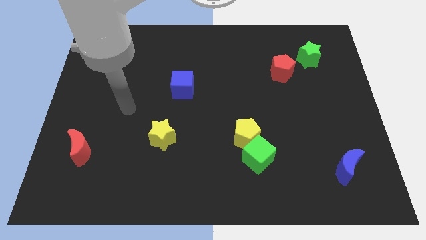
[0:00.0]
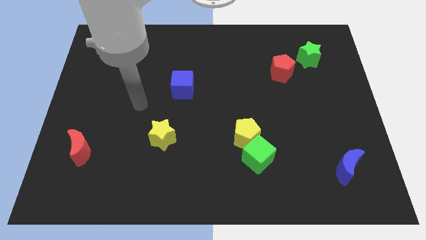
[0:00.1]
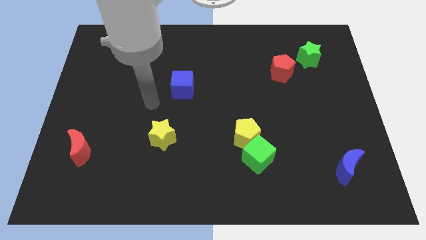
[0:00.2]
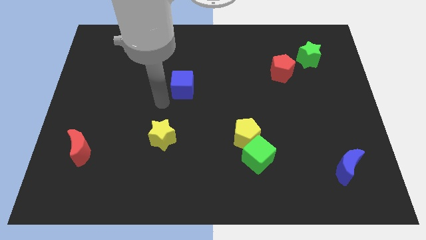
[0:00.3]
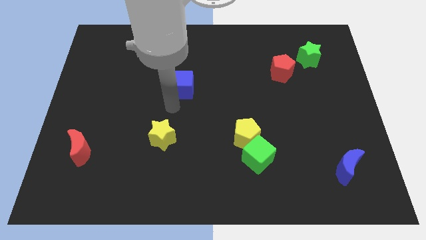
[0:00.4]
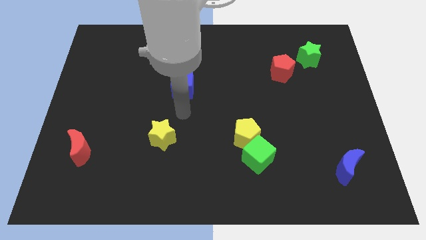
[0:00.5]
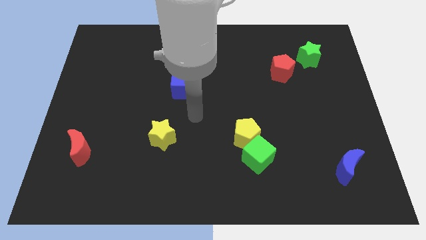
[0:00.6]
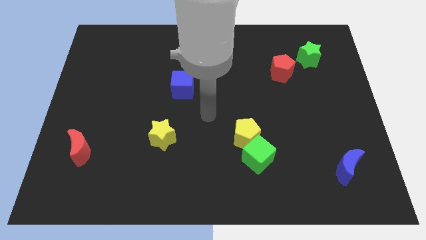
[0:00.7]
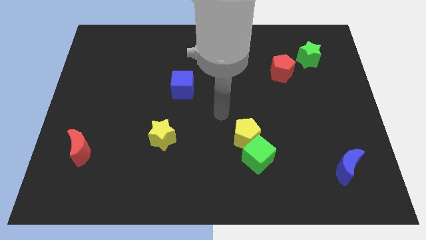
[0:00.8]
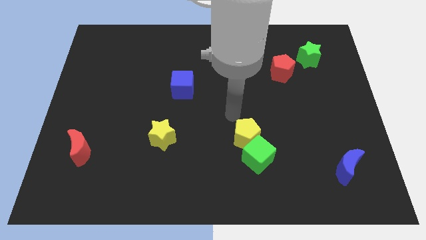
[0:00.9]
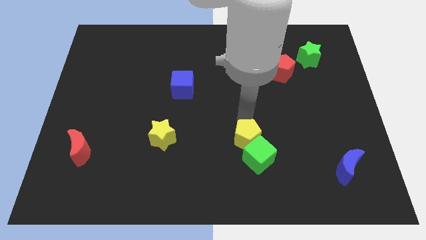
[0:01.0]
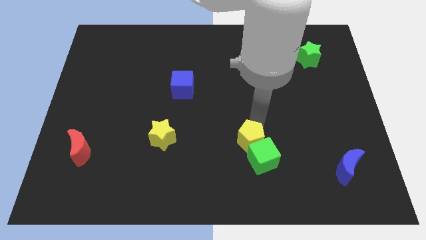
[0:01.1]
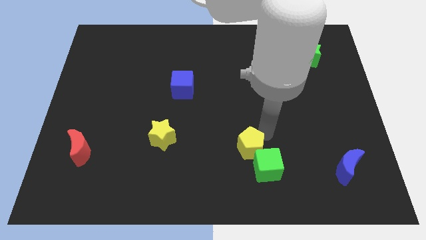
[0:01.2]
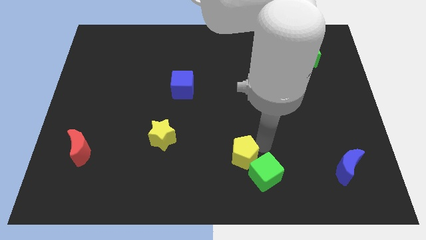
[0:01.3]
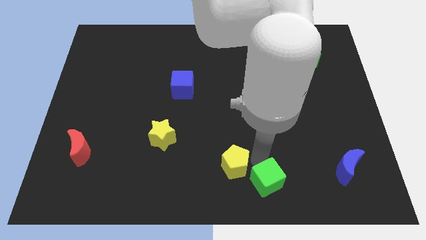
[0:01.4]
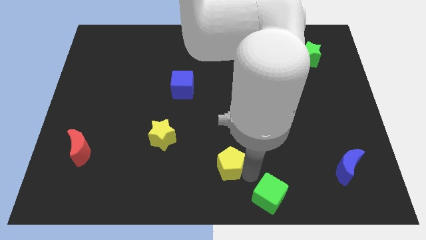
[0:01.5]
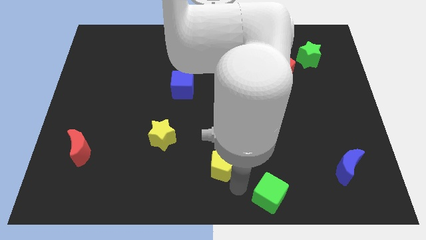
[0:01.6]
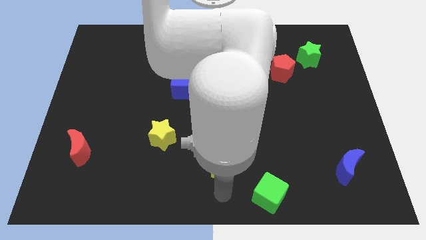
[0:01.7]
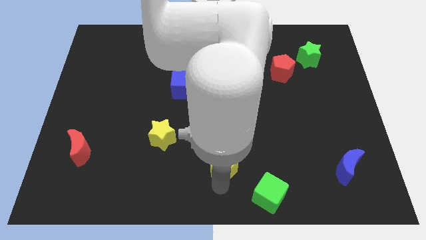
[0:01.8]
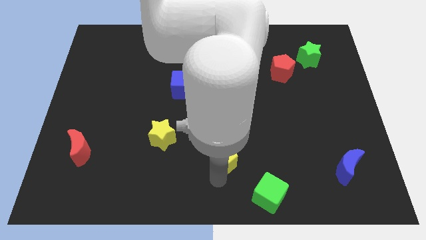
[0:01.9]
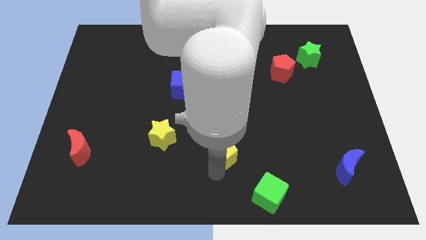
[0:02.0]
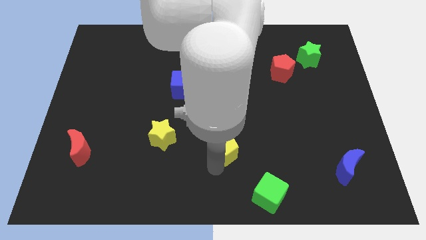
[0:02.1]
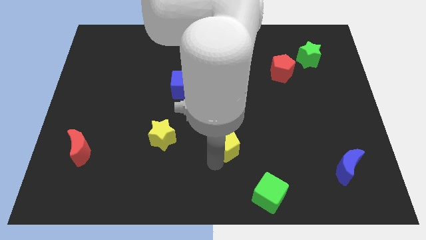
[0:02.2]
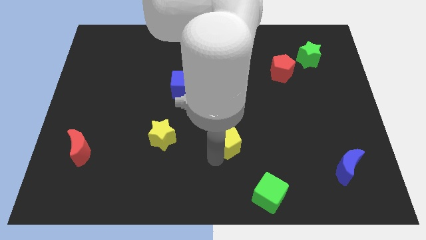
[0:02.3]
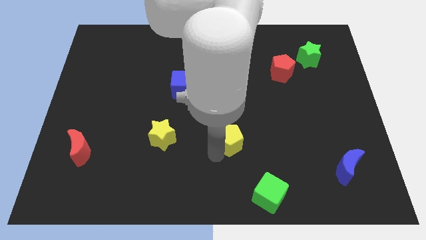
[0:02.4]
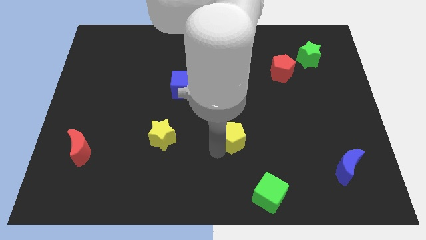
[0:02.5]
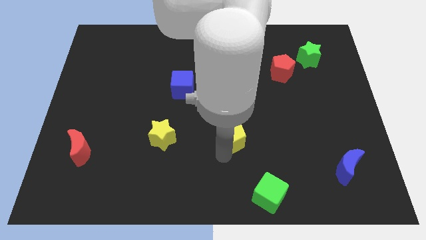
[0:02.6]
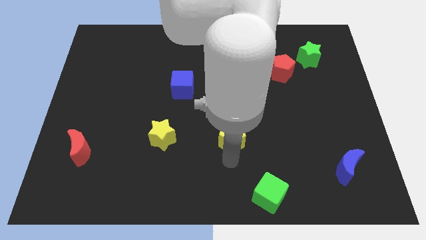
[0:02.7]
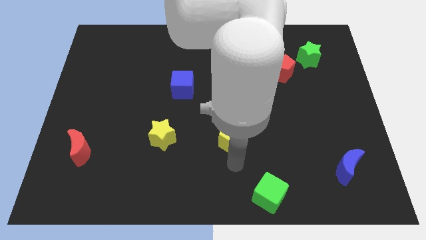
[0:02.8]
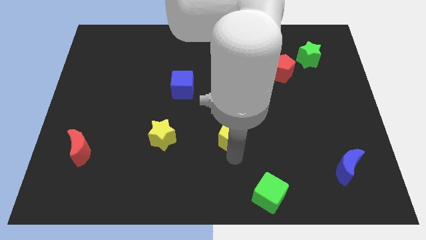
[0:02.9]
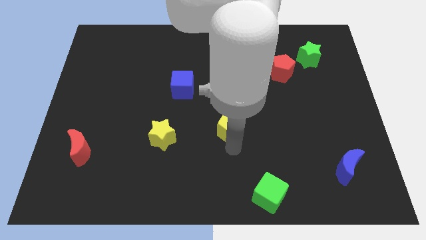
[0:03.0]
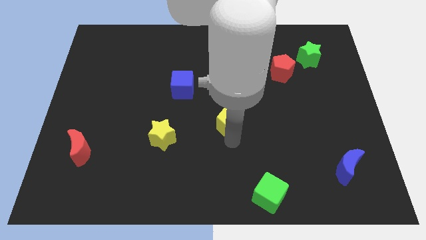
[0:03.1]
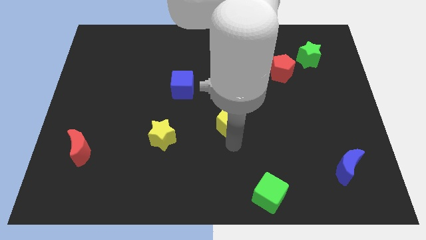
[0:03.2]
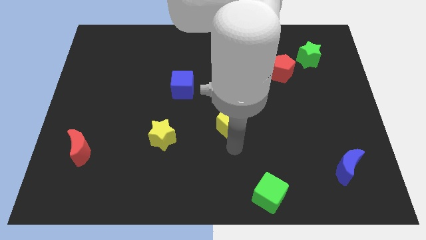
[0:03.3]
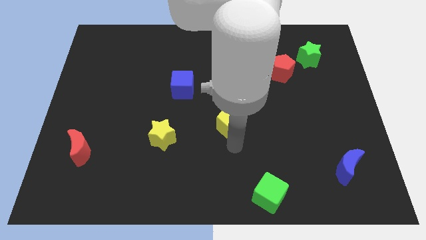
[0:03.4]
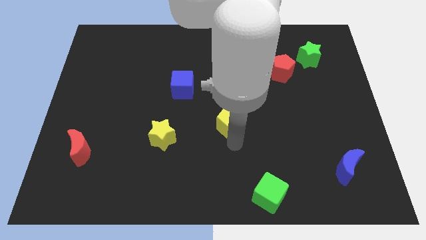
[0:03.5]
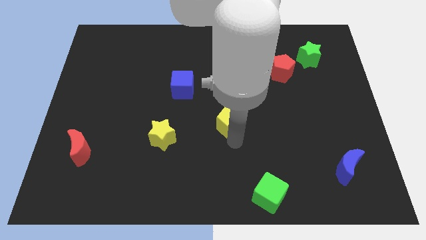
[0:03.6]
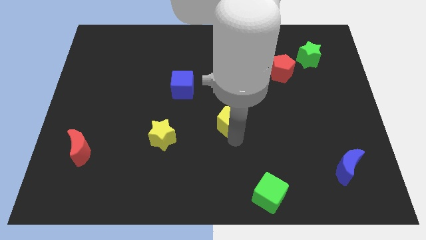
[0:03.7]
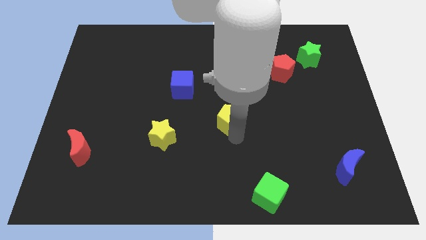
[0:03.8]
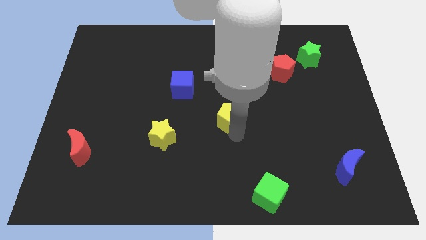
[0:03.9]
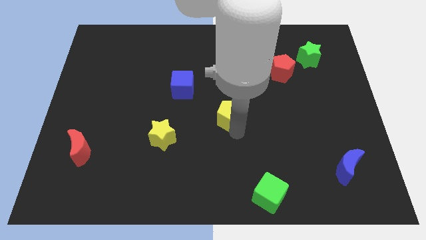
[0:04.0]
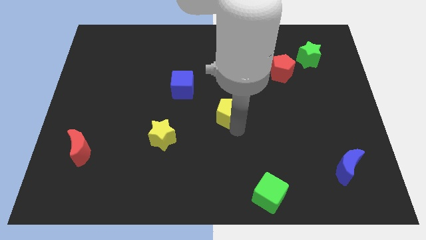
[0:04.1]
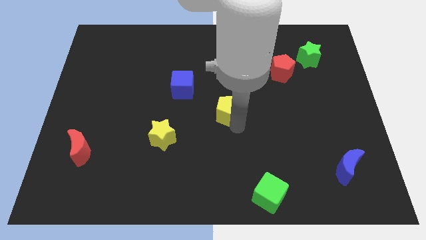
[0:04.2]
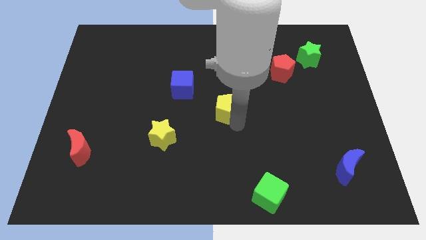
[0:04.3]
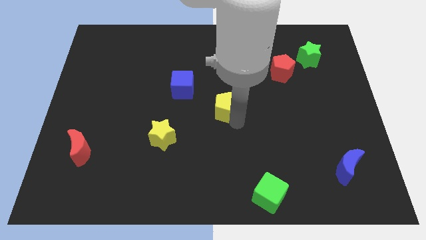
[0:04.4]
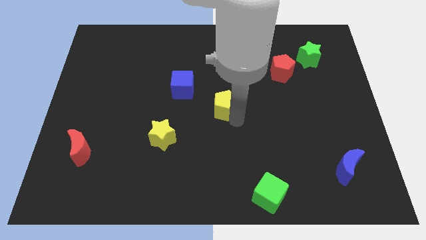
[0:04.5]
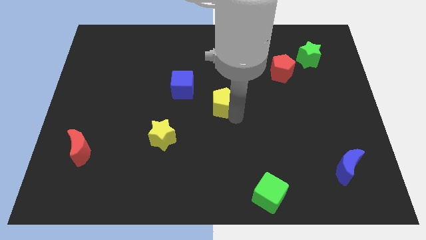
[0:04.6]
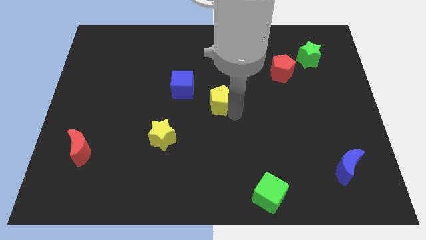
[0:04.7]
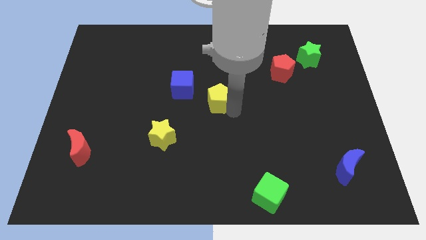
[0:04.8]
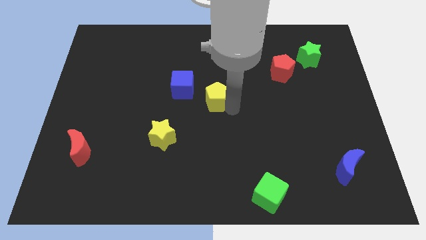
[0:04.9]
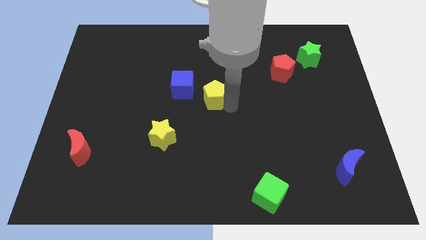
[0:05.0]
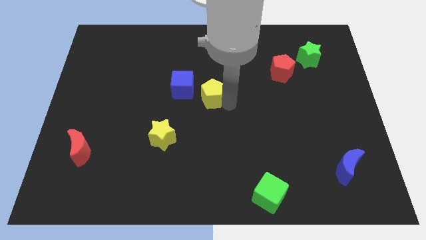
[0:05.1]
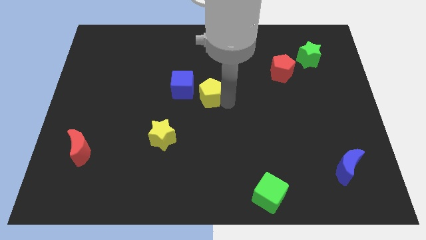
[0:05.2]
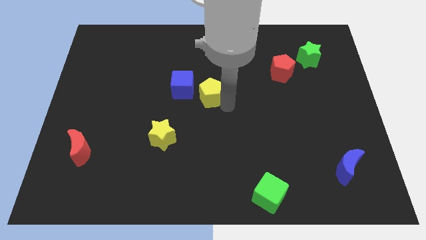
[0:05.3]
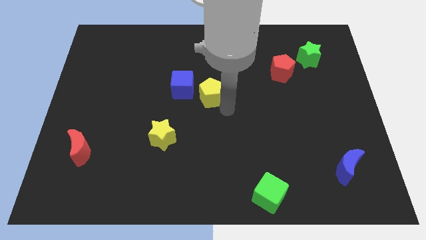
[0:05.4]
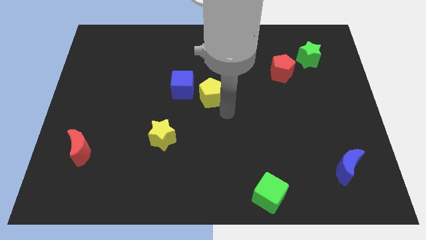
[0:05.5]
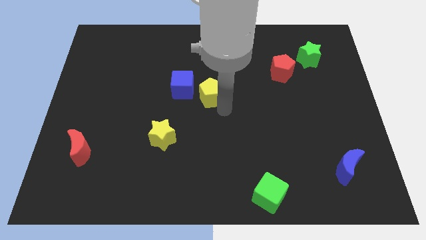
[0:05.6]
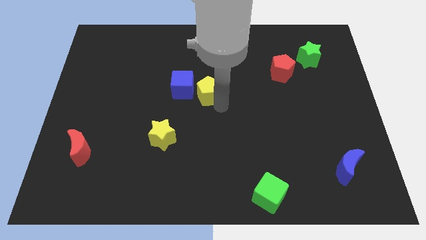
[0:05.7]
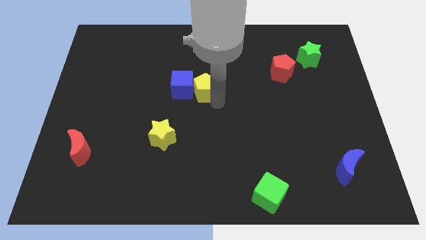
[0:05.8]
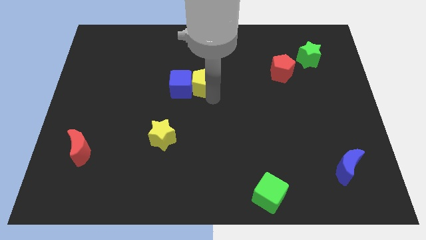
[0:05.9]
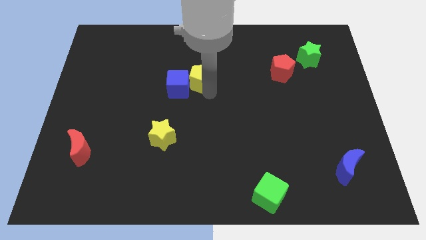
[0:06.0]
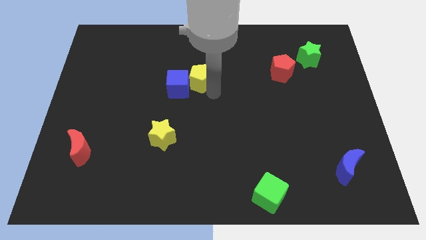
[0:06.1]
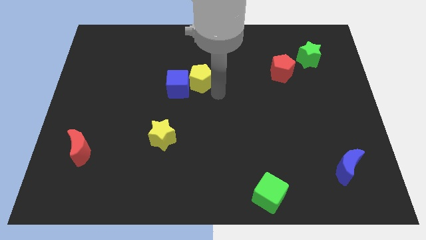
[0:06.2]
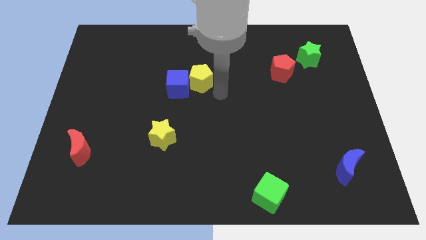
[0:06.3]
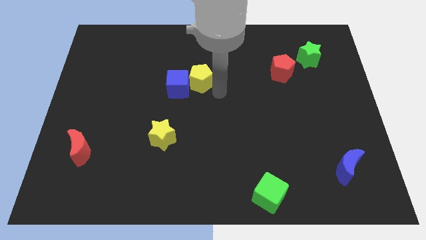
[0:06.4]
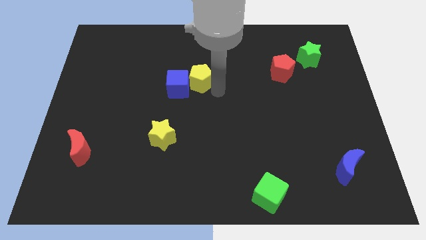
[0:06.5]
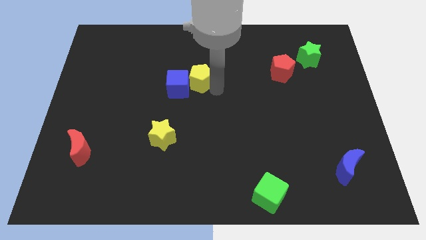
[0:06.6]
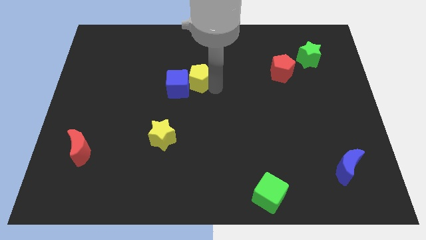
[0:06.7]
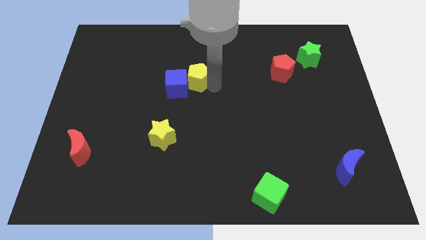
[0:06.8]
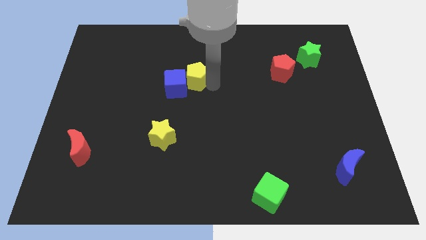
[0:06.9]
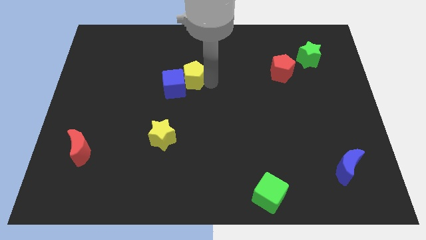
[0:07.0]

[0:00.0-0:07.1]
move the yellow pentagon up and to the left

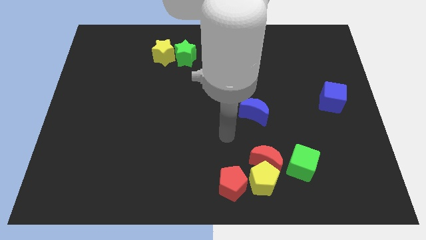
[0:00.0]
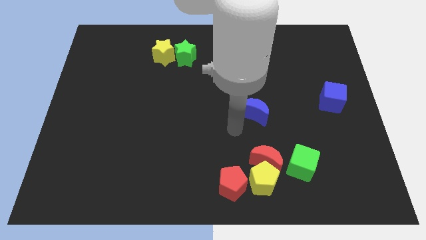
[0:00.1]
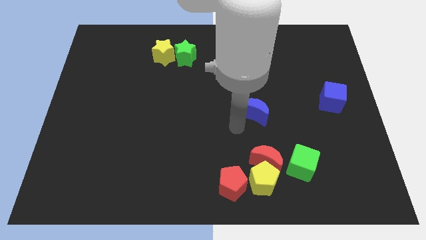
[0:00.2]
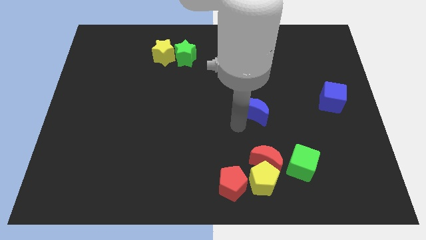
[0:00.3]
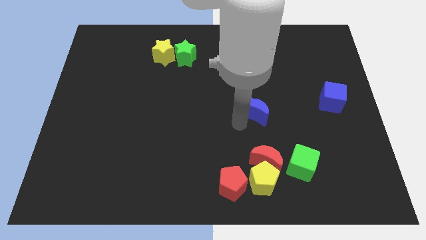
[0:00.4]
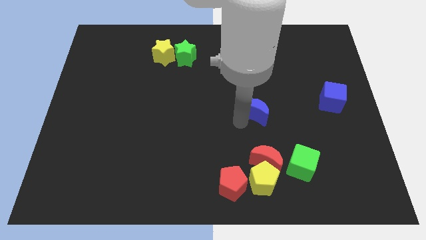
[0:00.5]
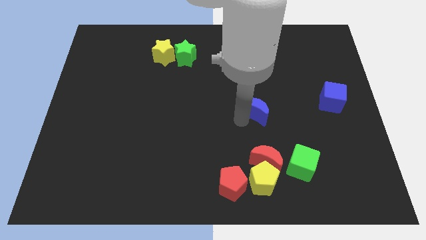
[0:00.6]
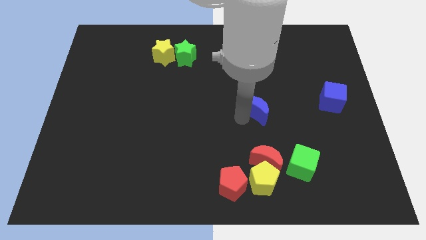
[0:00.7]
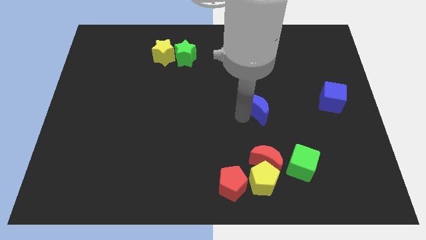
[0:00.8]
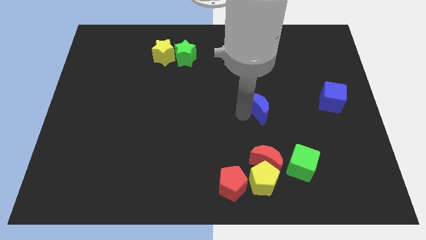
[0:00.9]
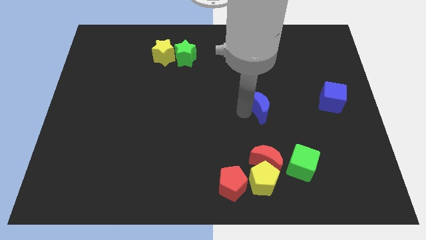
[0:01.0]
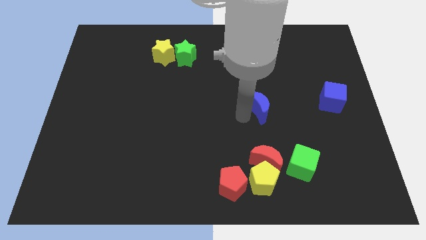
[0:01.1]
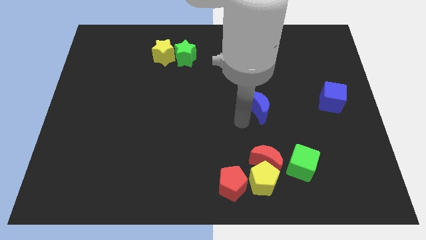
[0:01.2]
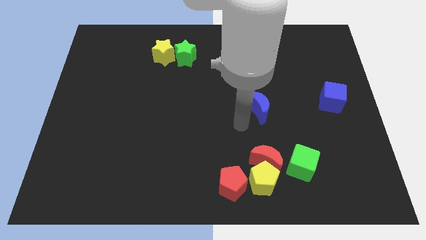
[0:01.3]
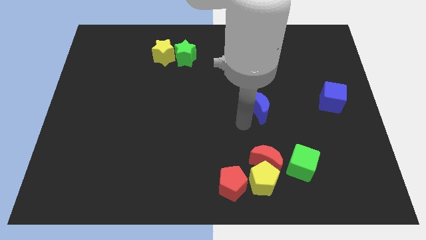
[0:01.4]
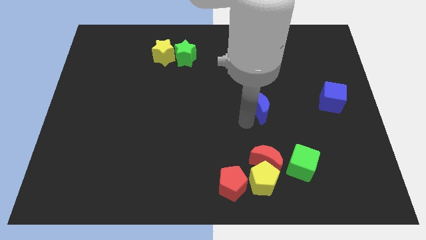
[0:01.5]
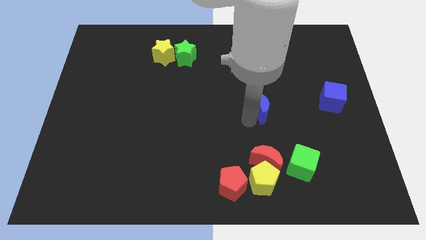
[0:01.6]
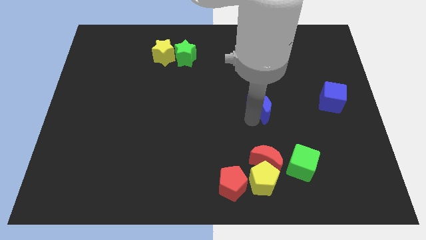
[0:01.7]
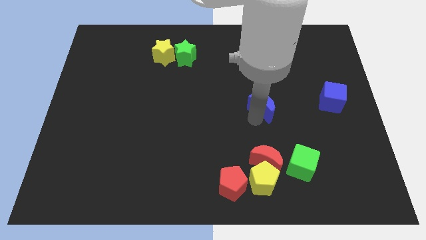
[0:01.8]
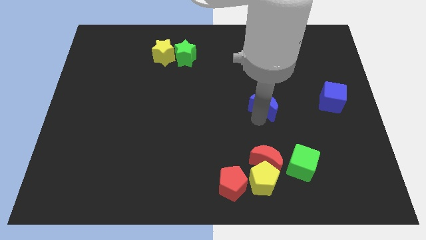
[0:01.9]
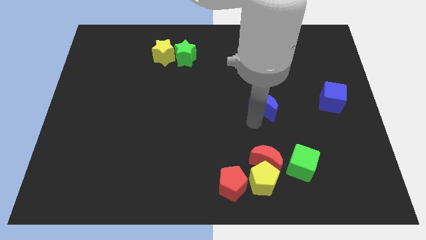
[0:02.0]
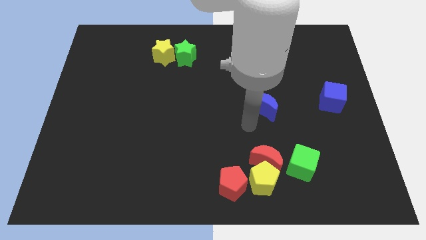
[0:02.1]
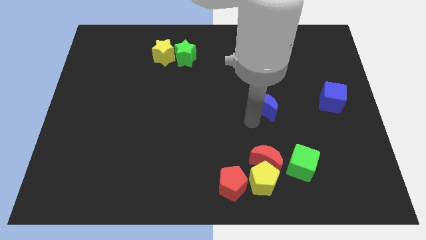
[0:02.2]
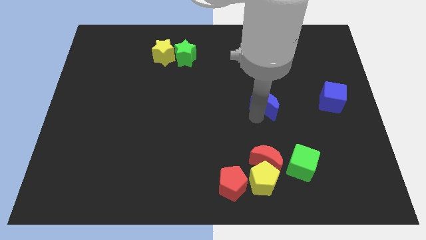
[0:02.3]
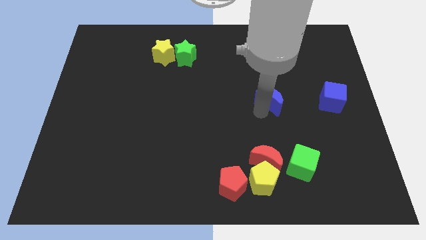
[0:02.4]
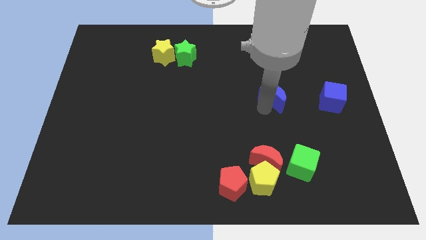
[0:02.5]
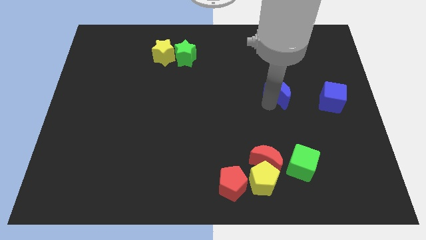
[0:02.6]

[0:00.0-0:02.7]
slightly slide the blue moon diagonally up and right
